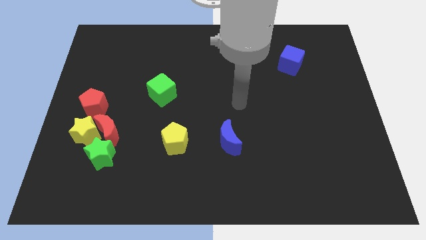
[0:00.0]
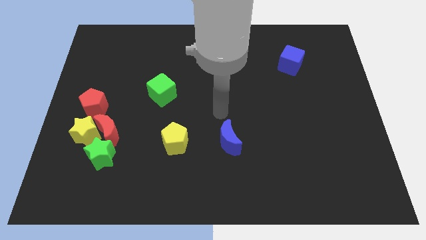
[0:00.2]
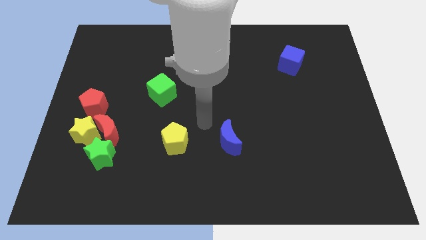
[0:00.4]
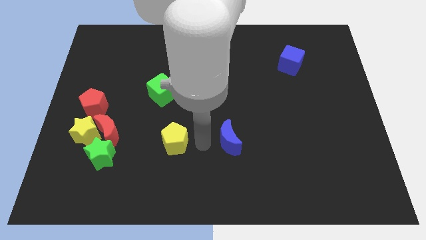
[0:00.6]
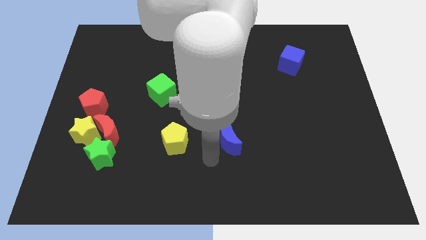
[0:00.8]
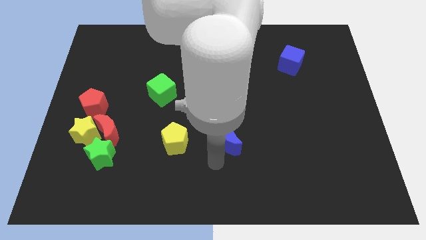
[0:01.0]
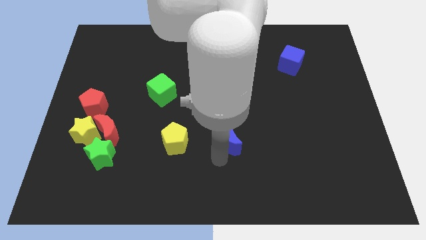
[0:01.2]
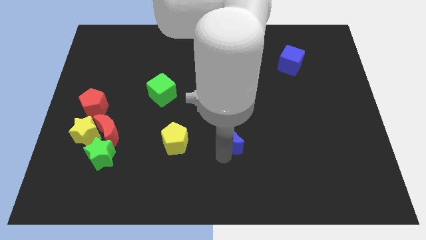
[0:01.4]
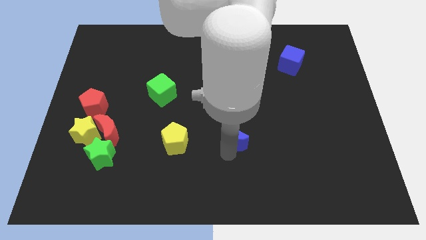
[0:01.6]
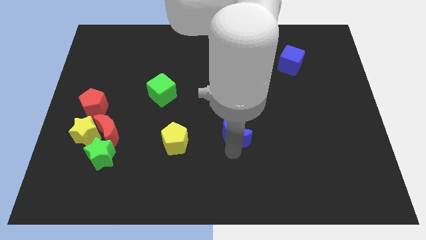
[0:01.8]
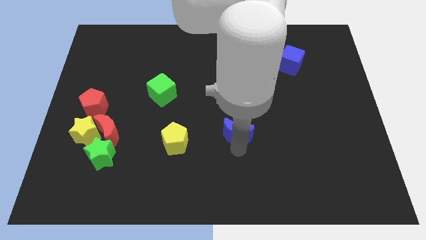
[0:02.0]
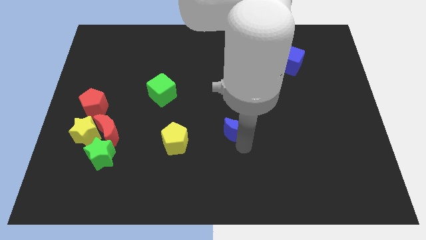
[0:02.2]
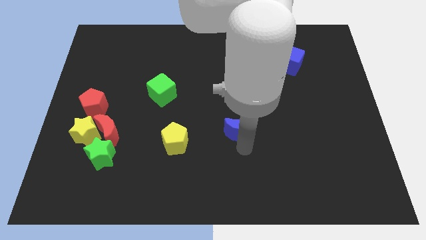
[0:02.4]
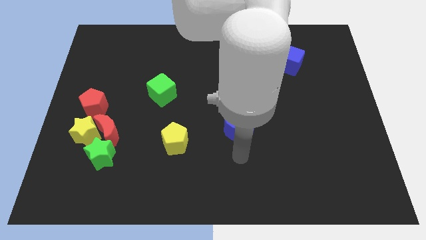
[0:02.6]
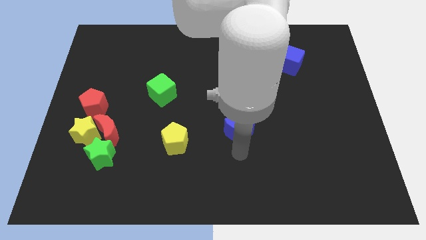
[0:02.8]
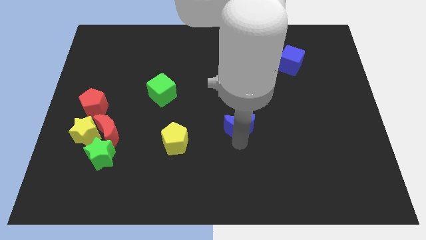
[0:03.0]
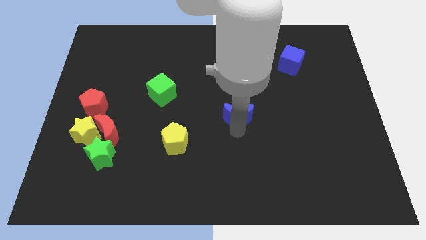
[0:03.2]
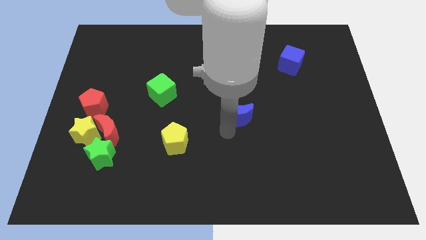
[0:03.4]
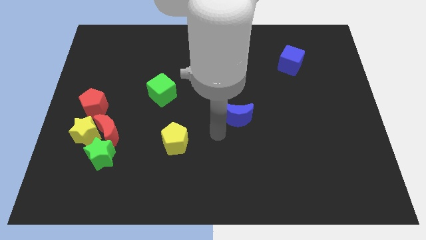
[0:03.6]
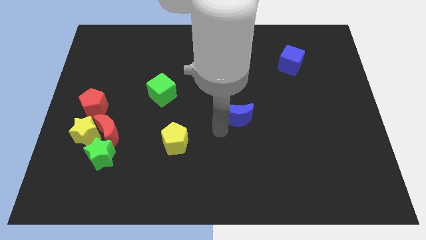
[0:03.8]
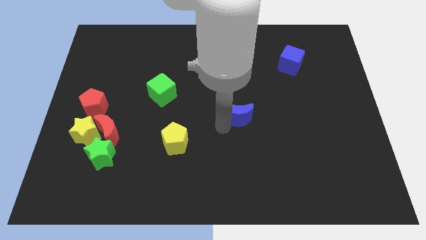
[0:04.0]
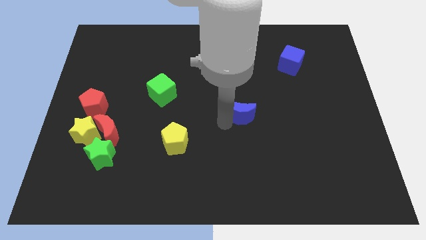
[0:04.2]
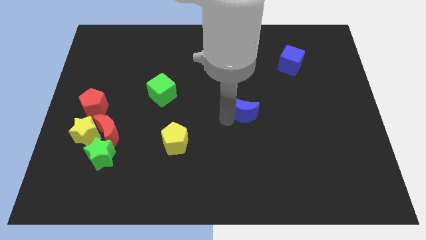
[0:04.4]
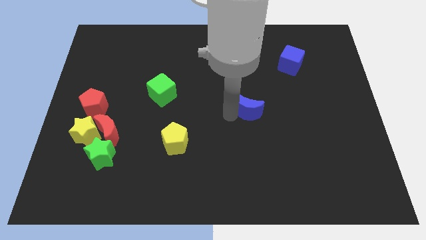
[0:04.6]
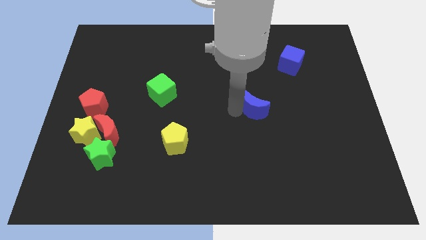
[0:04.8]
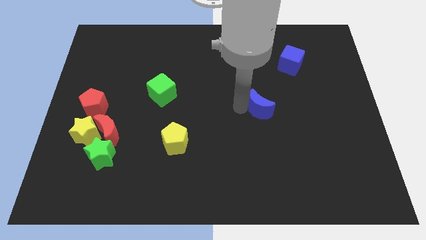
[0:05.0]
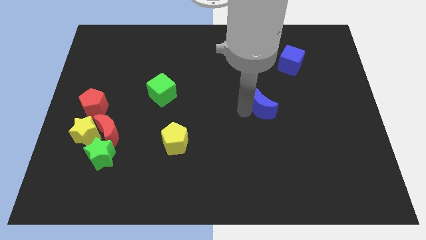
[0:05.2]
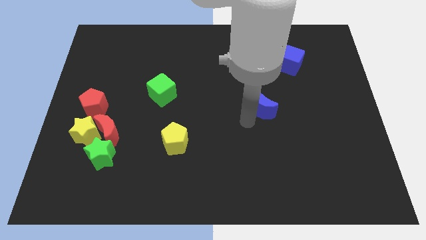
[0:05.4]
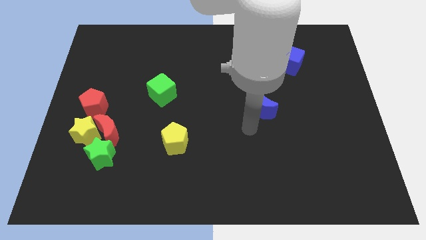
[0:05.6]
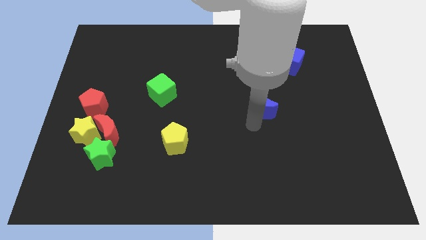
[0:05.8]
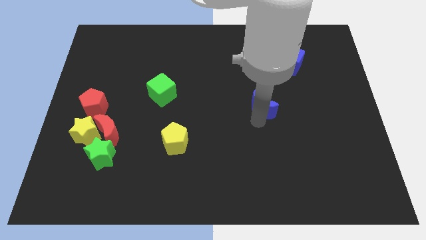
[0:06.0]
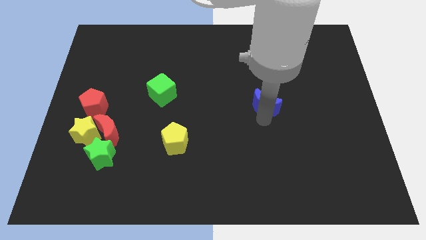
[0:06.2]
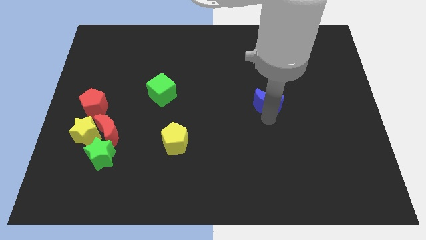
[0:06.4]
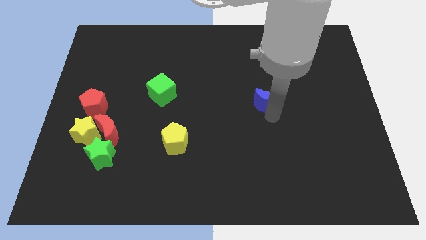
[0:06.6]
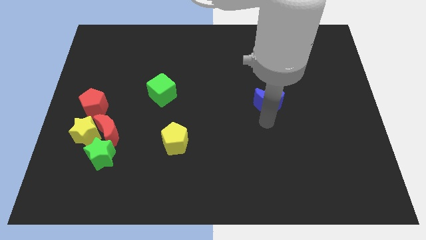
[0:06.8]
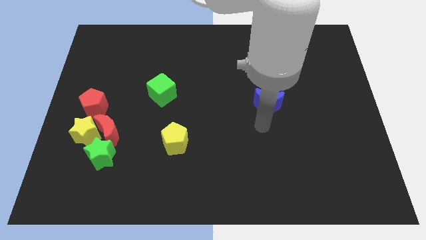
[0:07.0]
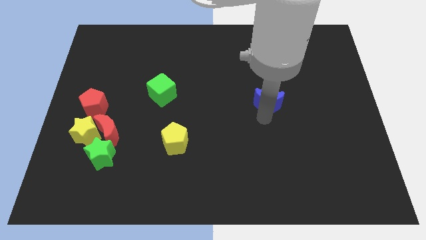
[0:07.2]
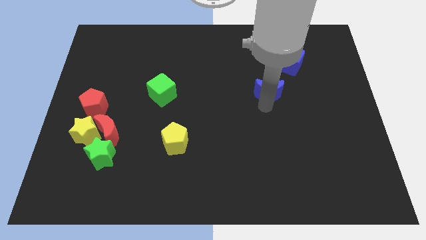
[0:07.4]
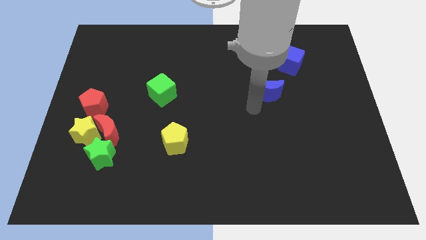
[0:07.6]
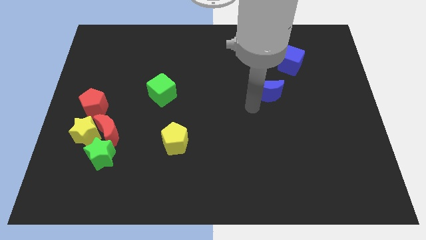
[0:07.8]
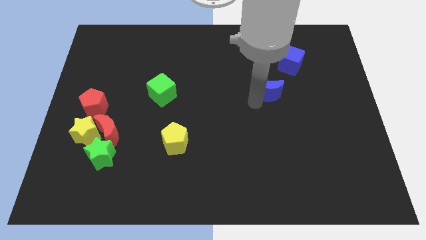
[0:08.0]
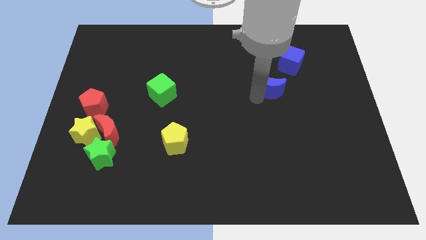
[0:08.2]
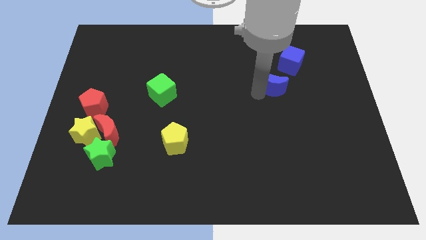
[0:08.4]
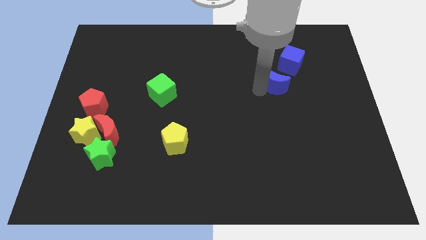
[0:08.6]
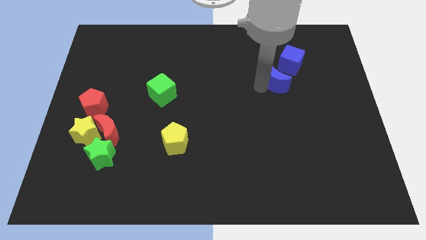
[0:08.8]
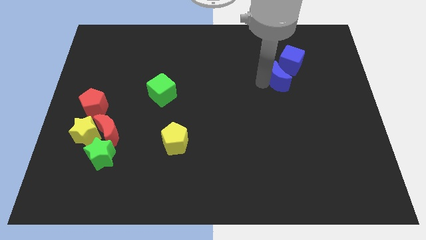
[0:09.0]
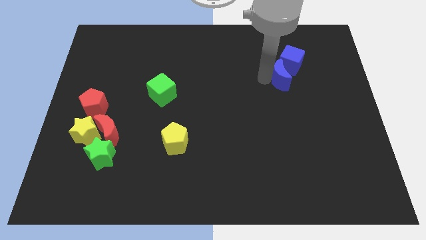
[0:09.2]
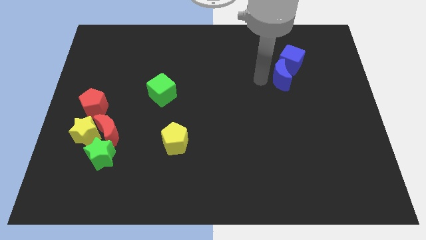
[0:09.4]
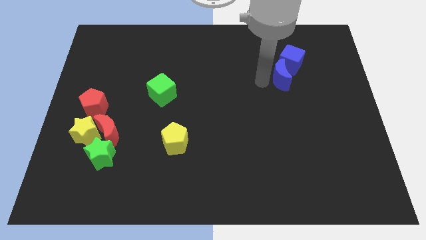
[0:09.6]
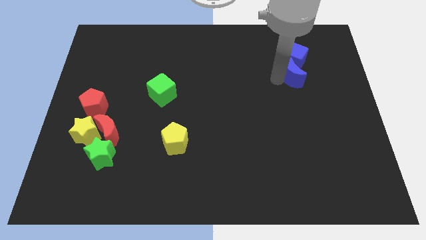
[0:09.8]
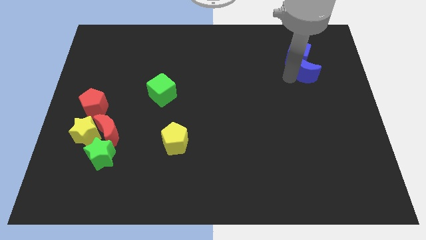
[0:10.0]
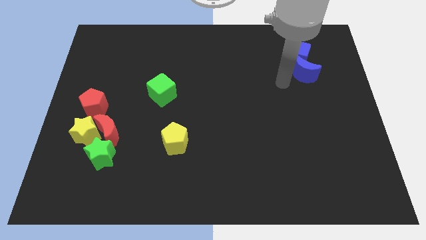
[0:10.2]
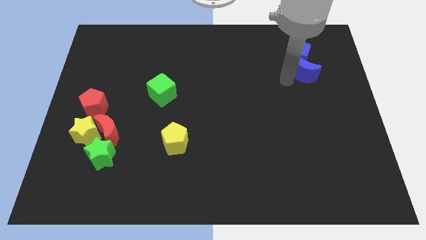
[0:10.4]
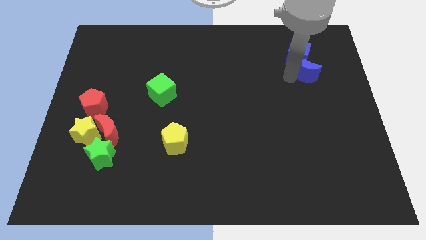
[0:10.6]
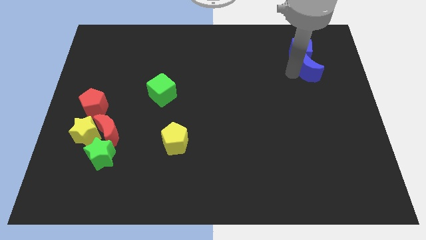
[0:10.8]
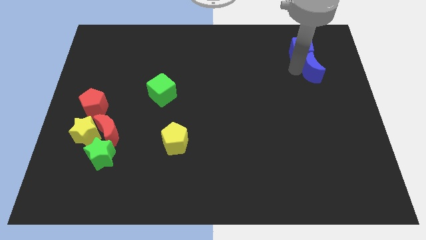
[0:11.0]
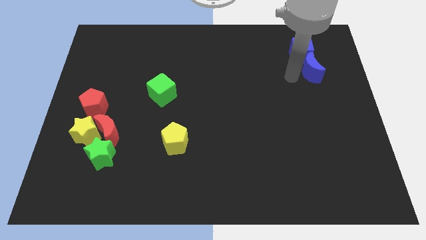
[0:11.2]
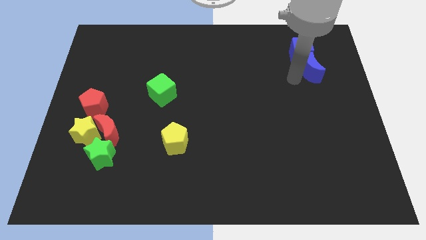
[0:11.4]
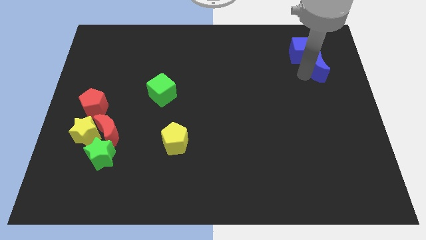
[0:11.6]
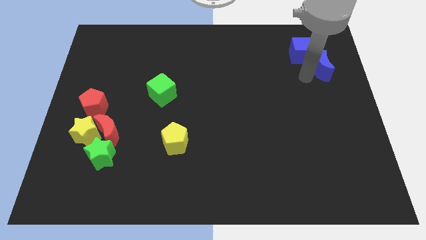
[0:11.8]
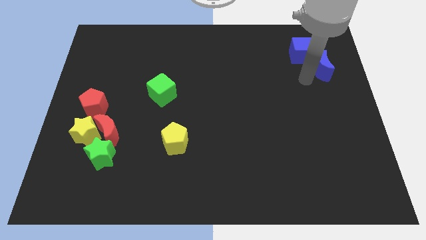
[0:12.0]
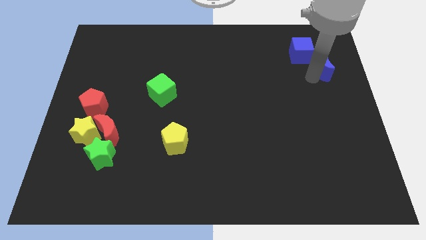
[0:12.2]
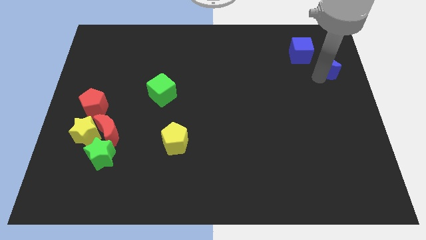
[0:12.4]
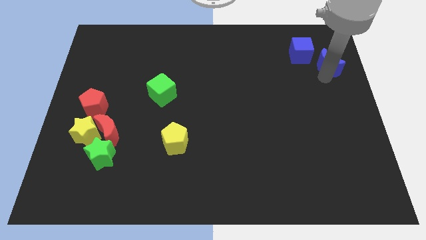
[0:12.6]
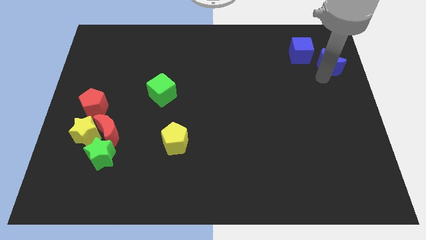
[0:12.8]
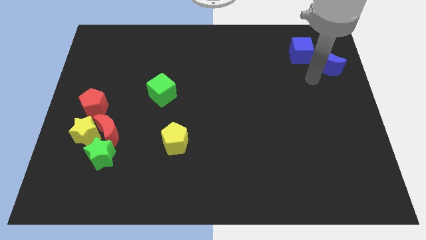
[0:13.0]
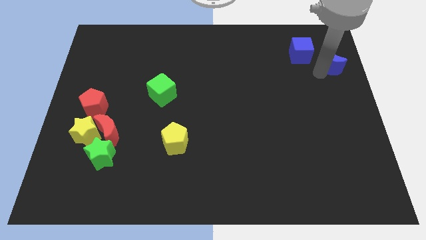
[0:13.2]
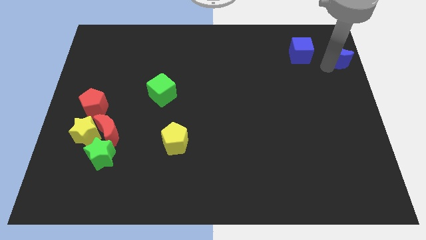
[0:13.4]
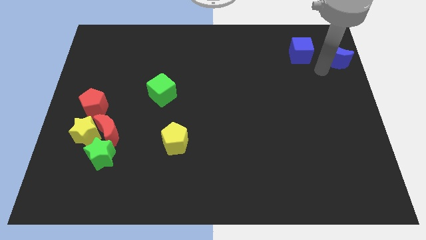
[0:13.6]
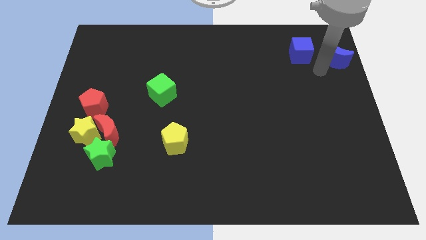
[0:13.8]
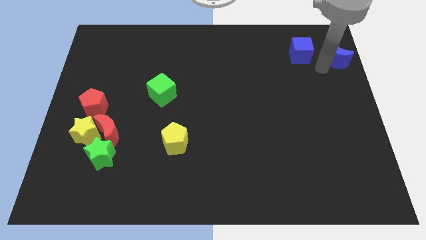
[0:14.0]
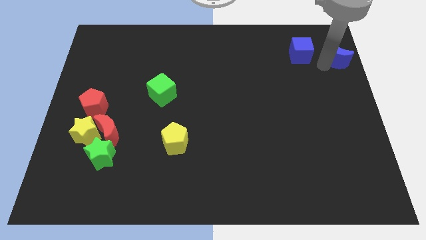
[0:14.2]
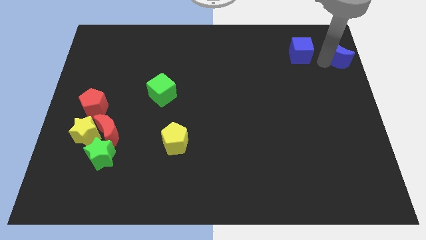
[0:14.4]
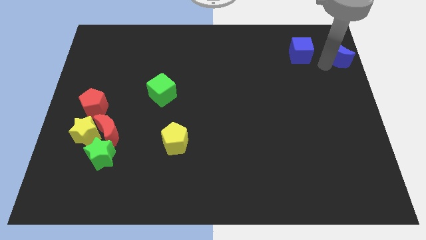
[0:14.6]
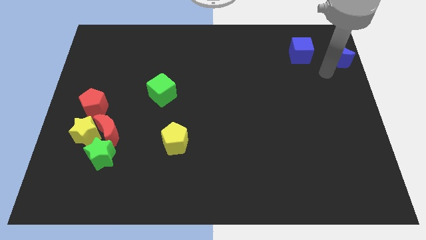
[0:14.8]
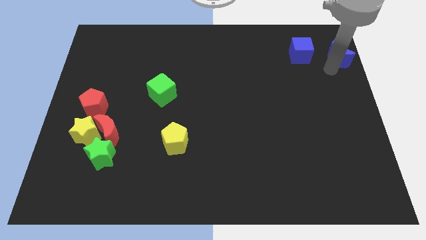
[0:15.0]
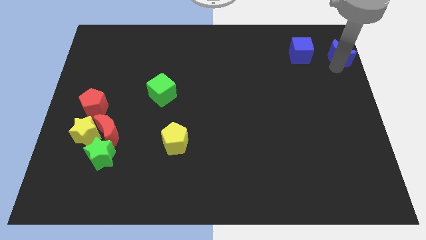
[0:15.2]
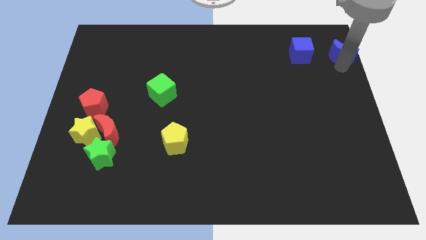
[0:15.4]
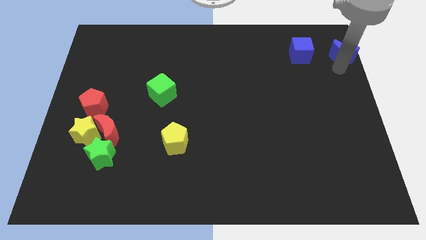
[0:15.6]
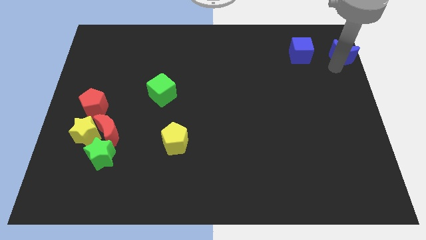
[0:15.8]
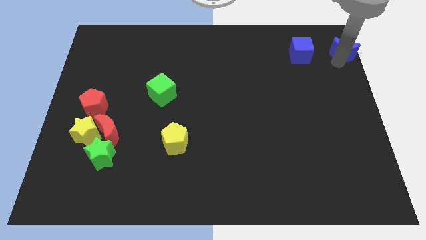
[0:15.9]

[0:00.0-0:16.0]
move the blue moon to the upper right corner
